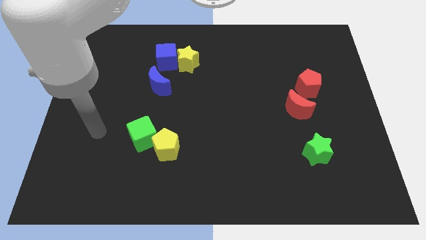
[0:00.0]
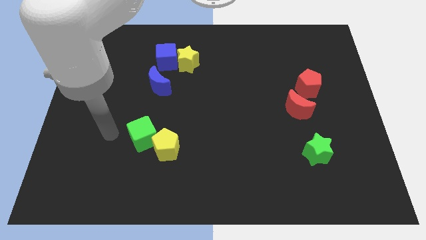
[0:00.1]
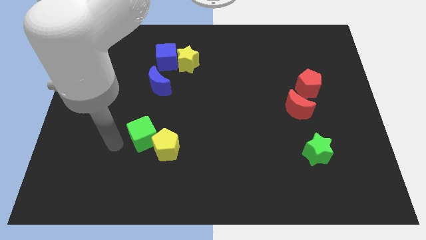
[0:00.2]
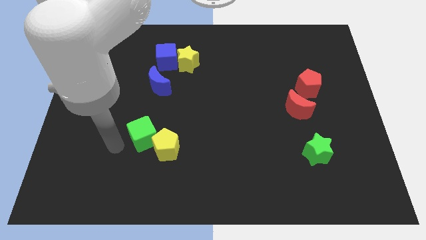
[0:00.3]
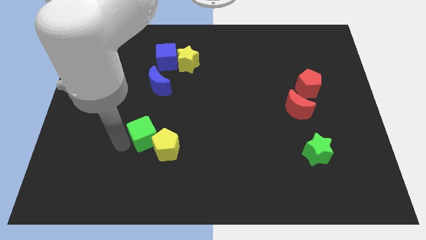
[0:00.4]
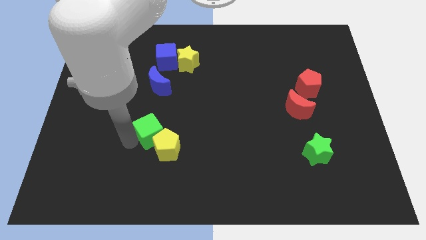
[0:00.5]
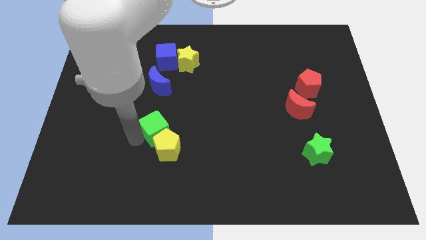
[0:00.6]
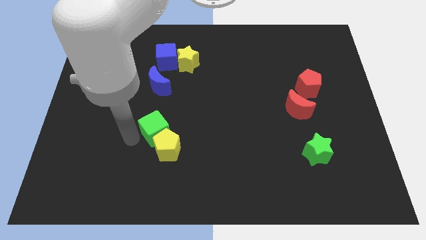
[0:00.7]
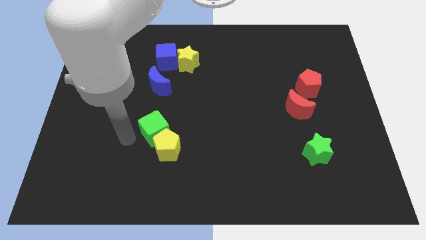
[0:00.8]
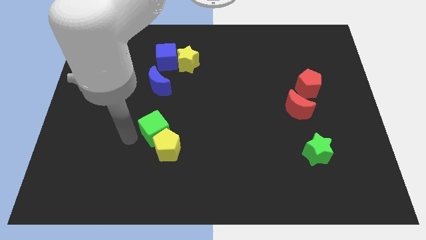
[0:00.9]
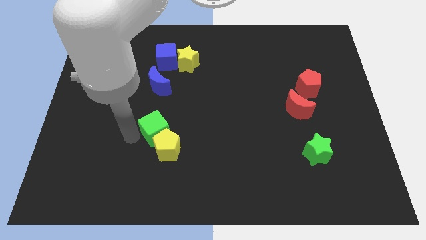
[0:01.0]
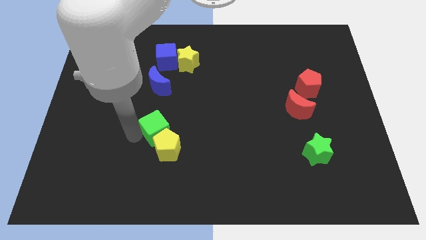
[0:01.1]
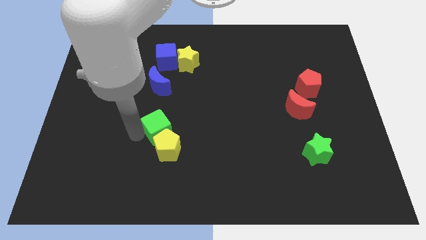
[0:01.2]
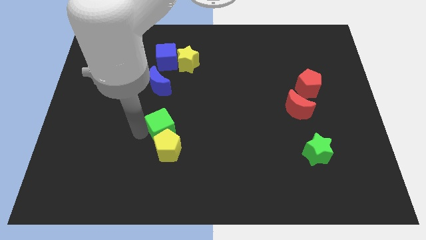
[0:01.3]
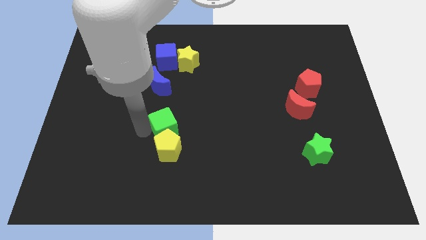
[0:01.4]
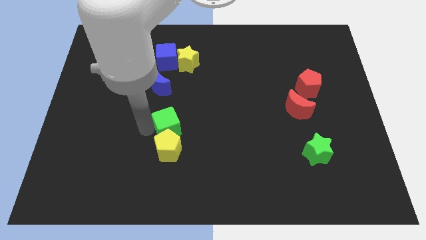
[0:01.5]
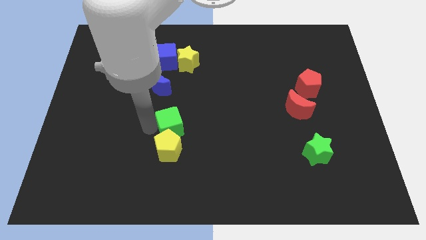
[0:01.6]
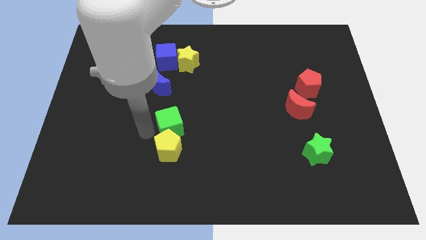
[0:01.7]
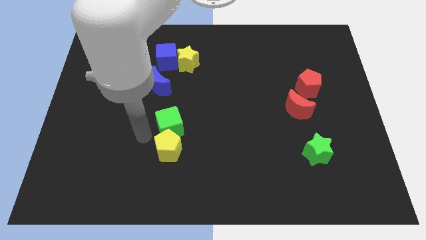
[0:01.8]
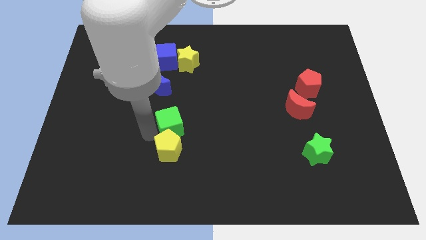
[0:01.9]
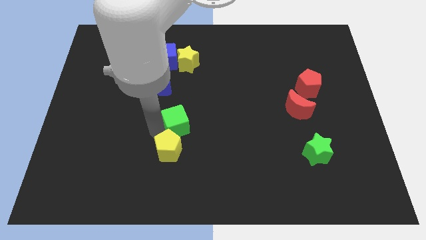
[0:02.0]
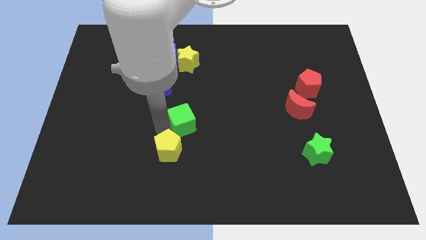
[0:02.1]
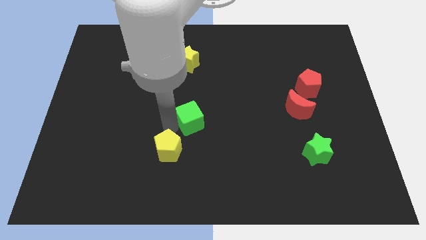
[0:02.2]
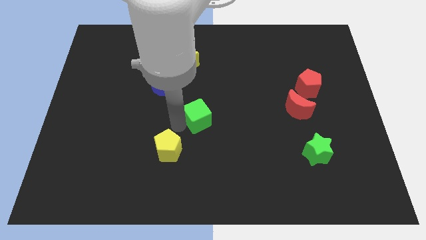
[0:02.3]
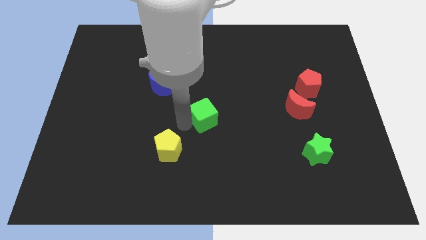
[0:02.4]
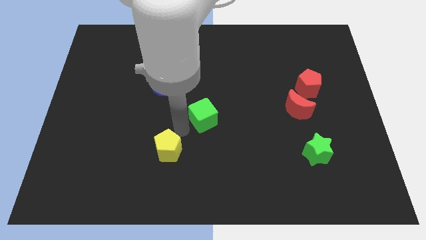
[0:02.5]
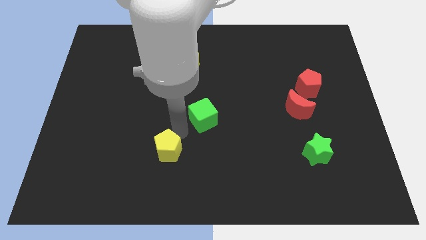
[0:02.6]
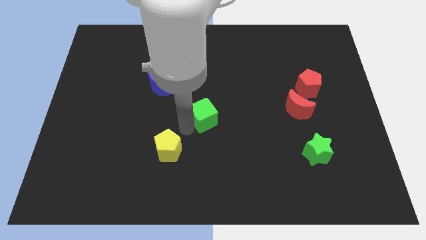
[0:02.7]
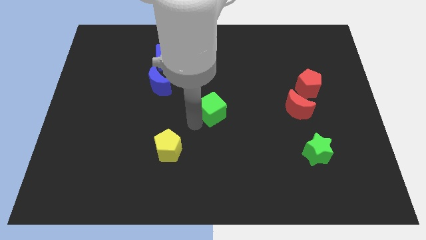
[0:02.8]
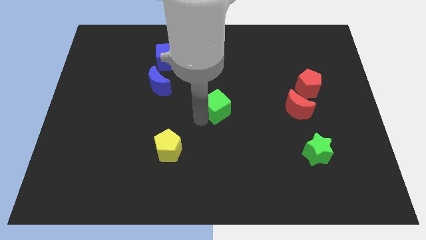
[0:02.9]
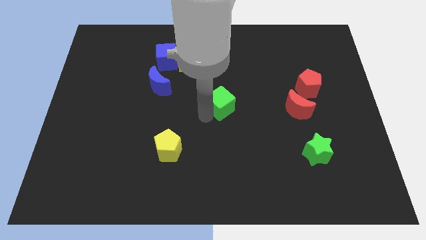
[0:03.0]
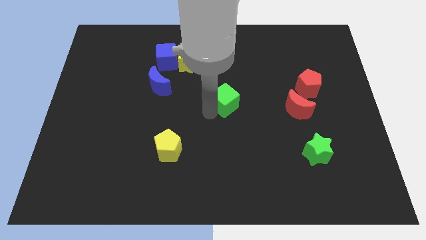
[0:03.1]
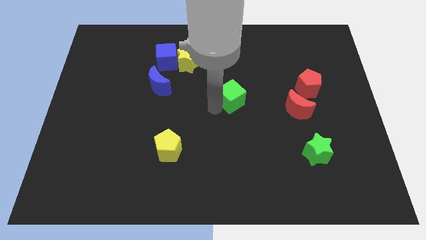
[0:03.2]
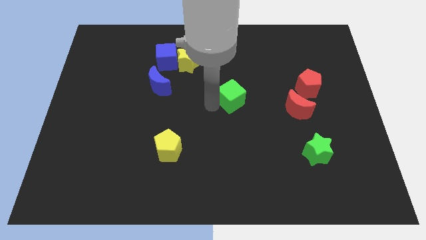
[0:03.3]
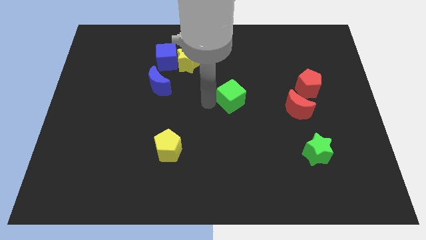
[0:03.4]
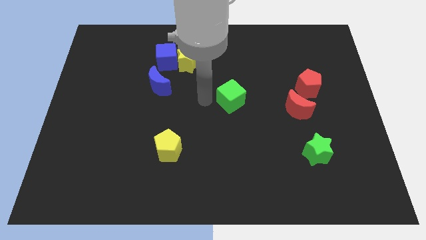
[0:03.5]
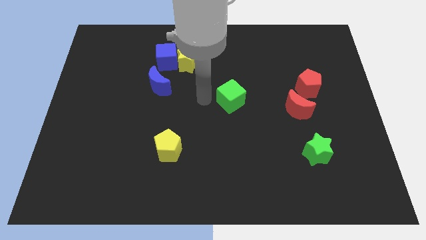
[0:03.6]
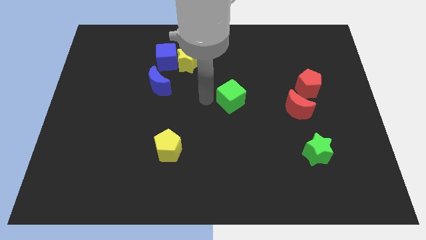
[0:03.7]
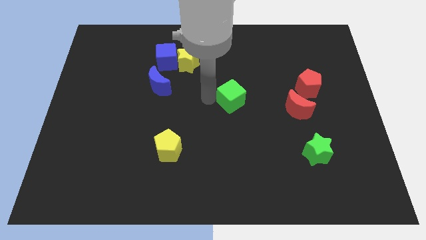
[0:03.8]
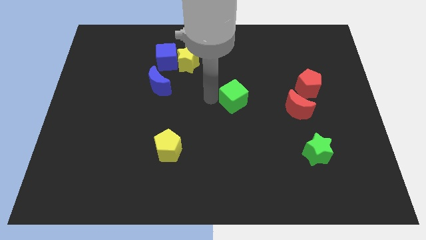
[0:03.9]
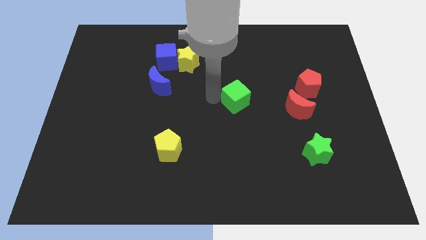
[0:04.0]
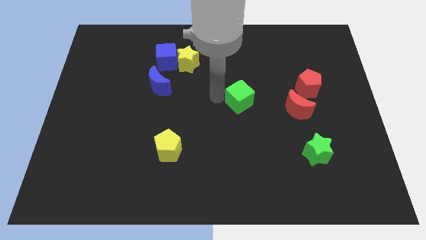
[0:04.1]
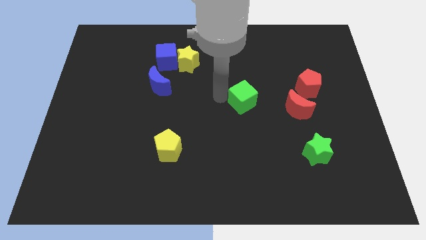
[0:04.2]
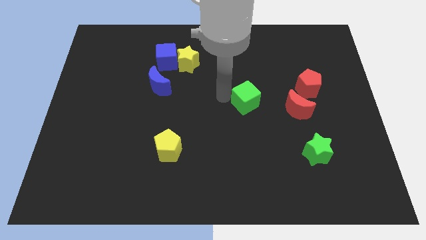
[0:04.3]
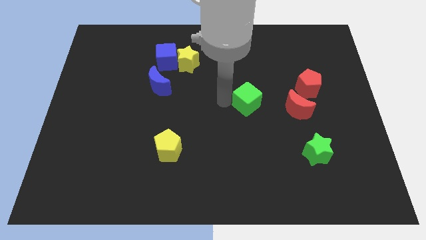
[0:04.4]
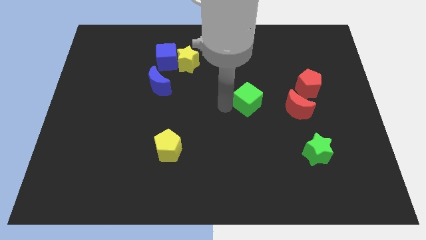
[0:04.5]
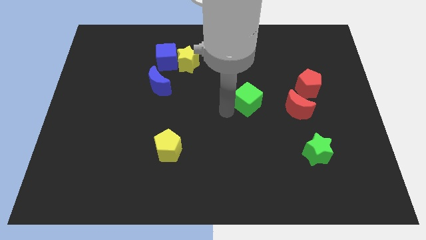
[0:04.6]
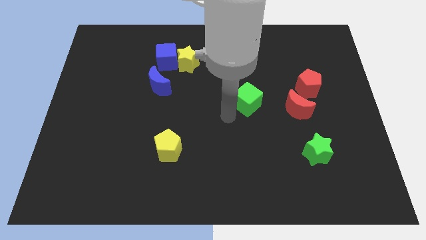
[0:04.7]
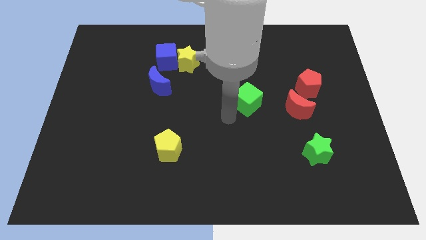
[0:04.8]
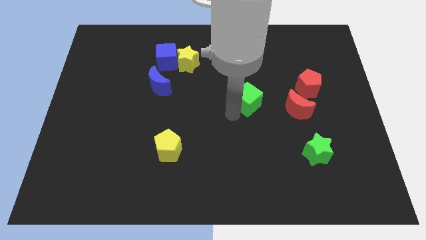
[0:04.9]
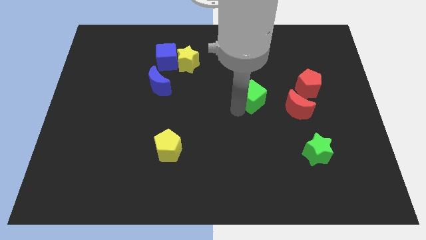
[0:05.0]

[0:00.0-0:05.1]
push the green cube to the left of the red pentagon

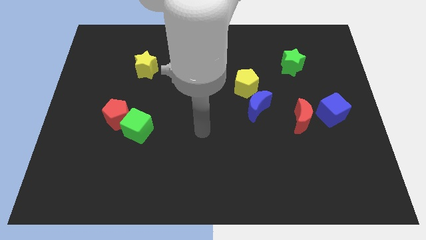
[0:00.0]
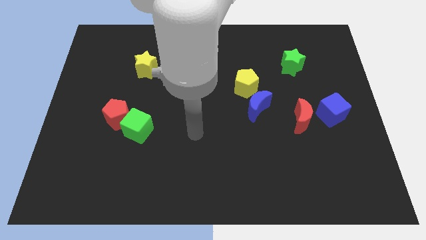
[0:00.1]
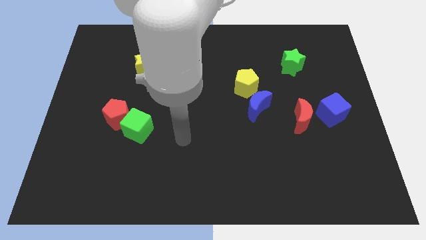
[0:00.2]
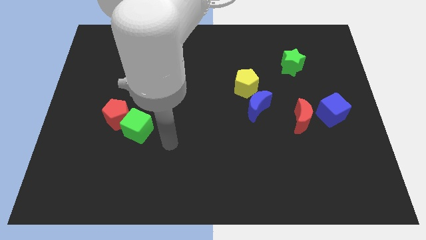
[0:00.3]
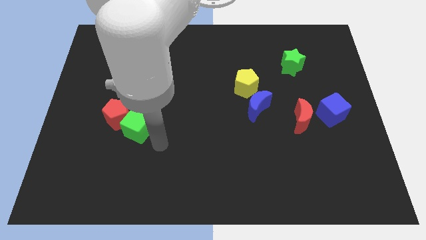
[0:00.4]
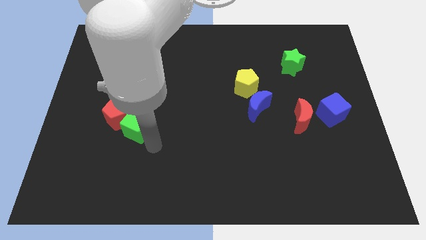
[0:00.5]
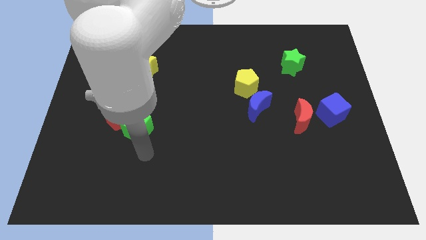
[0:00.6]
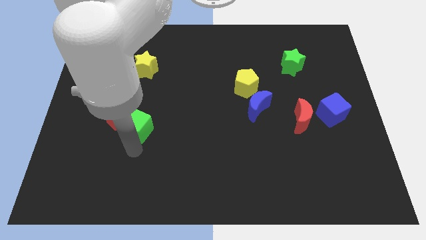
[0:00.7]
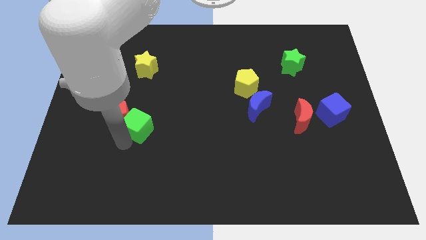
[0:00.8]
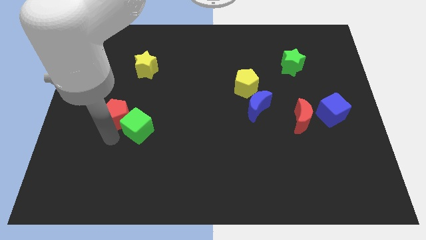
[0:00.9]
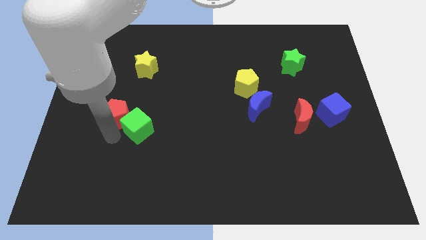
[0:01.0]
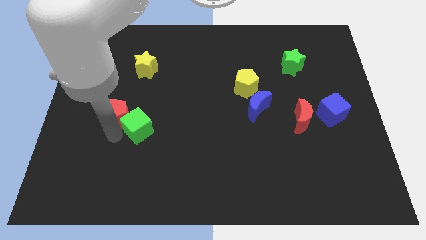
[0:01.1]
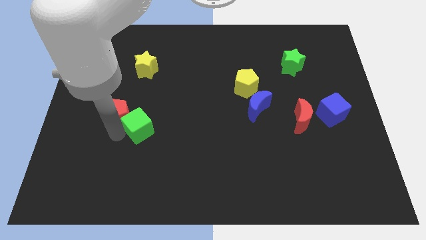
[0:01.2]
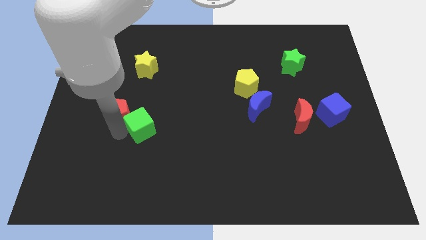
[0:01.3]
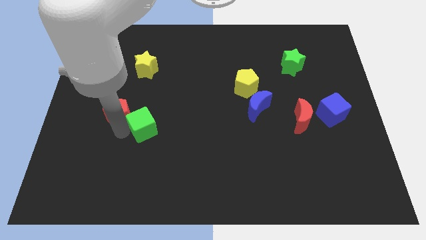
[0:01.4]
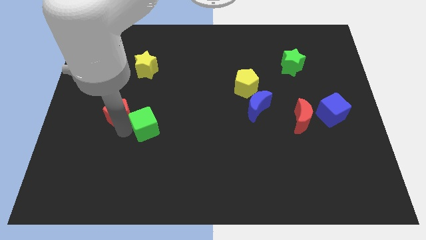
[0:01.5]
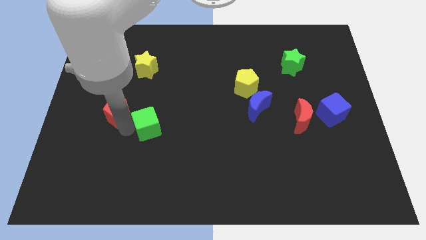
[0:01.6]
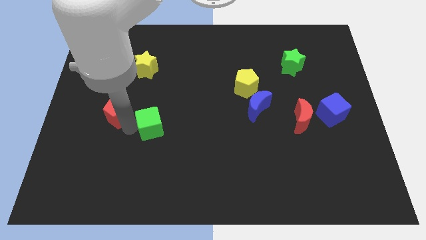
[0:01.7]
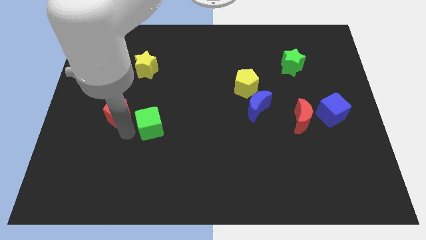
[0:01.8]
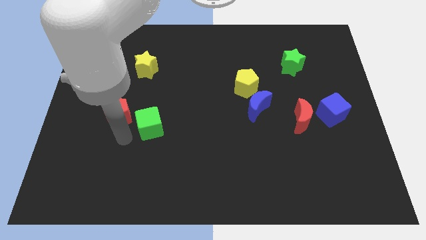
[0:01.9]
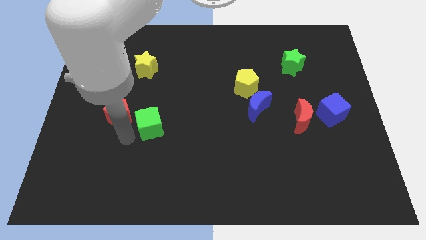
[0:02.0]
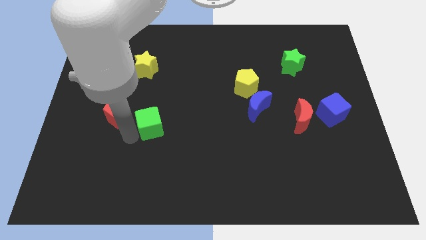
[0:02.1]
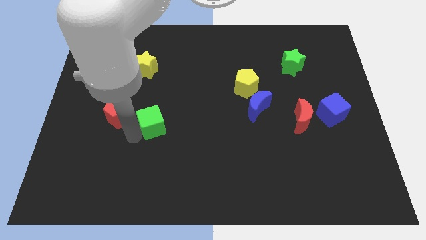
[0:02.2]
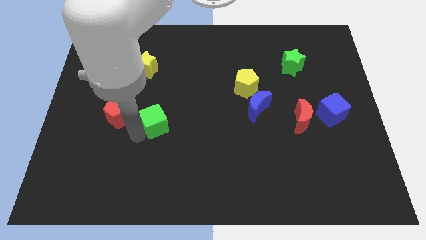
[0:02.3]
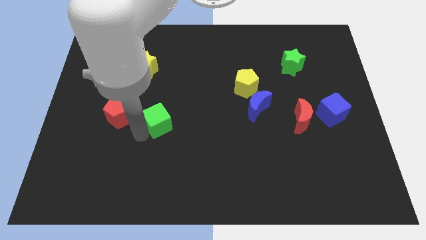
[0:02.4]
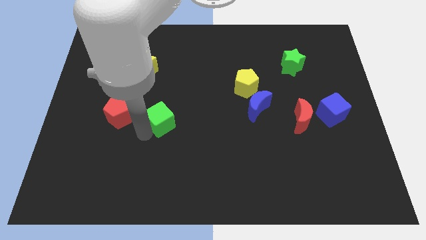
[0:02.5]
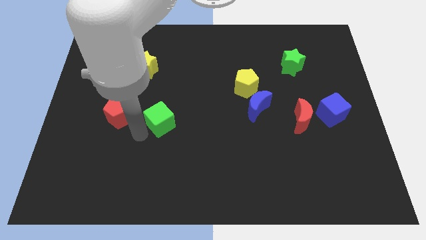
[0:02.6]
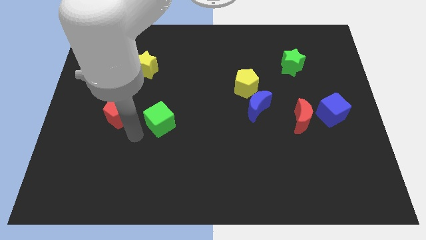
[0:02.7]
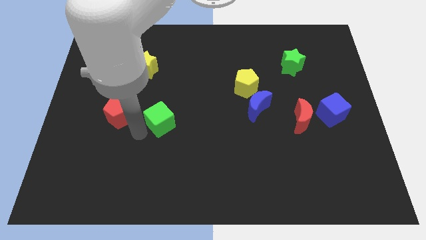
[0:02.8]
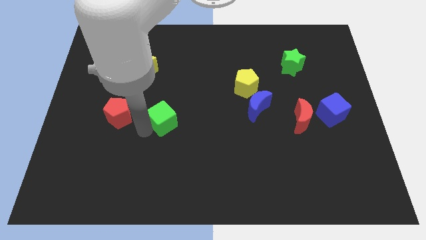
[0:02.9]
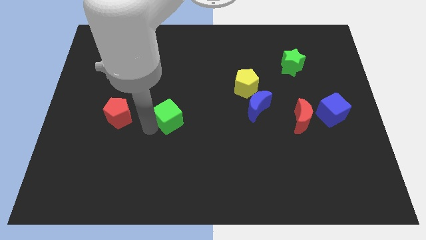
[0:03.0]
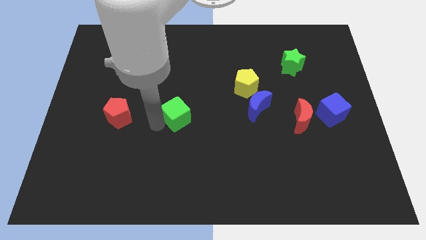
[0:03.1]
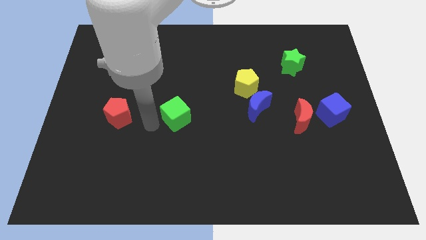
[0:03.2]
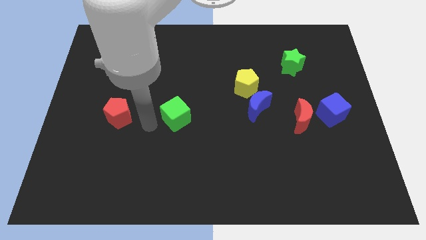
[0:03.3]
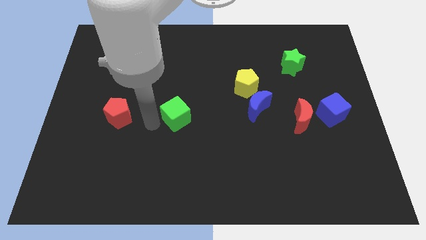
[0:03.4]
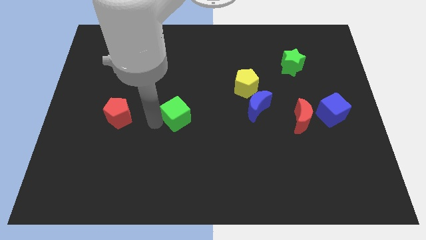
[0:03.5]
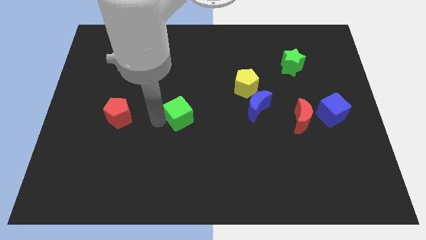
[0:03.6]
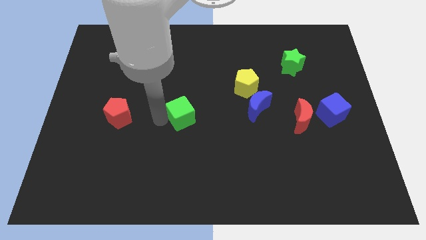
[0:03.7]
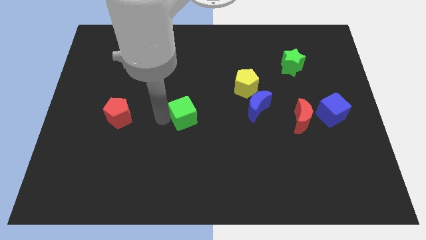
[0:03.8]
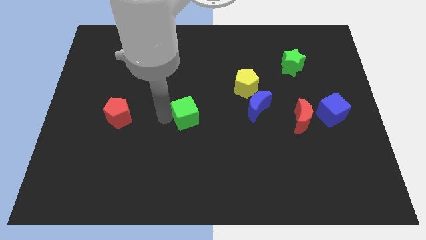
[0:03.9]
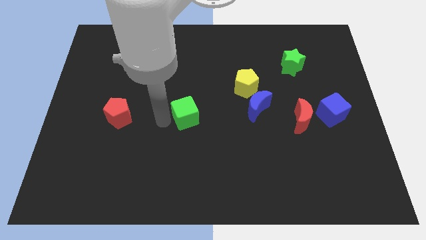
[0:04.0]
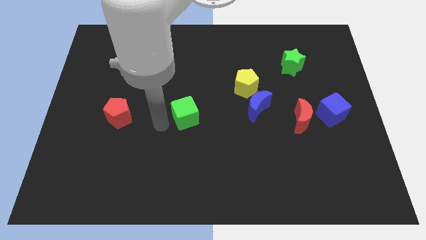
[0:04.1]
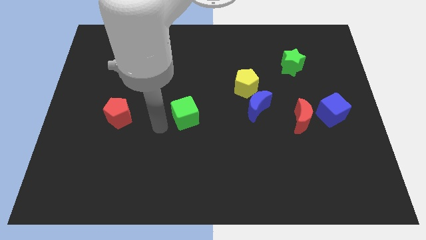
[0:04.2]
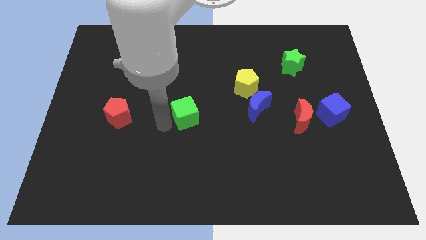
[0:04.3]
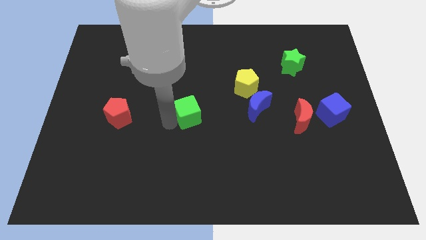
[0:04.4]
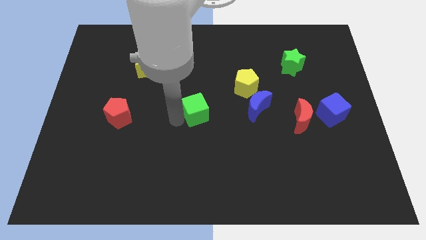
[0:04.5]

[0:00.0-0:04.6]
put the green cube to the left of the blue moon
